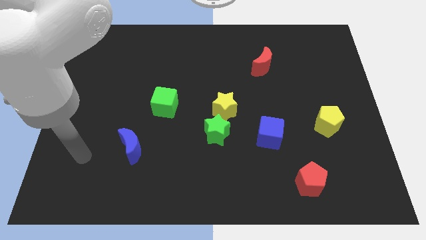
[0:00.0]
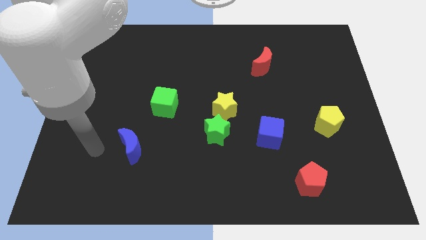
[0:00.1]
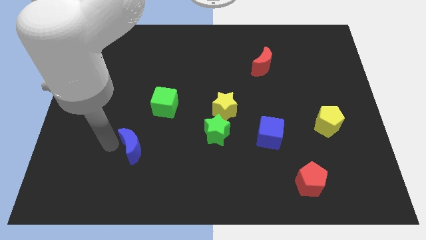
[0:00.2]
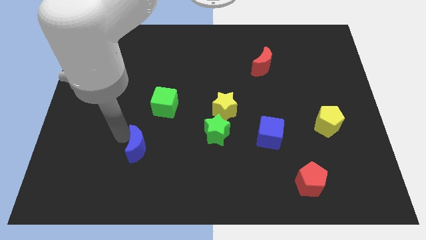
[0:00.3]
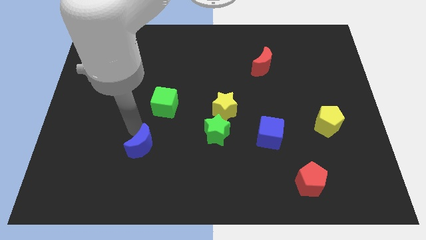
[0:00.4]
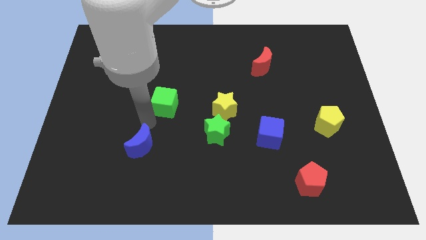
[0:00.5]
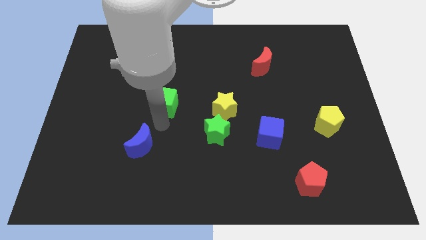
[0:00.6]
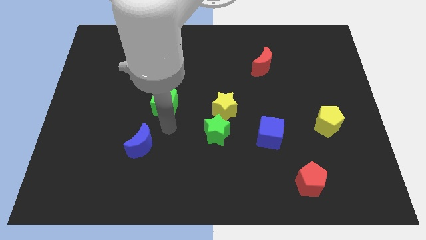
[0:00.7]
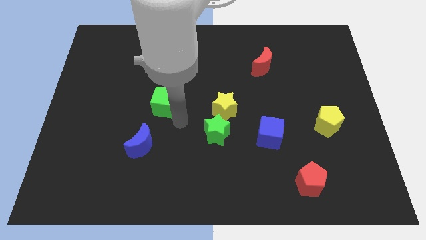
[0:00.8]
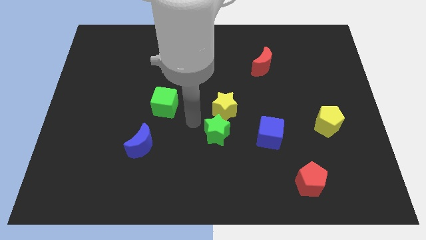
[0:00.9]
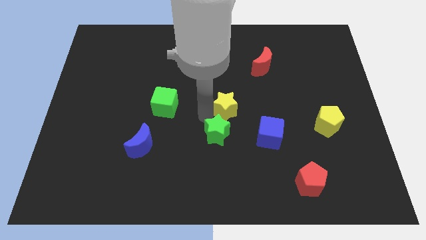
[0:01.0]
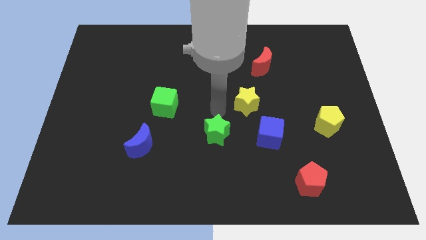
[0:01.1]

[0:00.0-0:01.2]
move the green star away from the yellow star

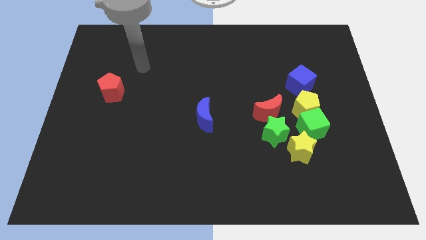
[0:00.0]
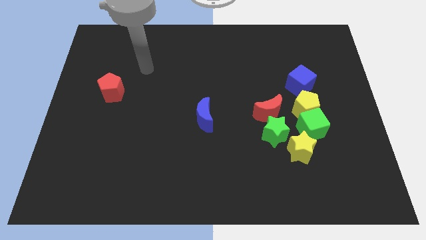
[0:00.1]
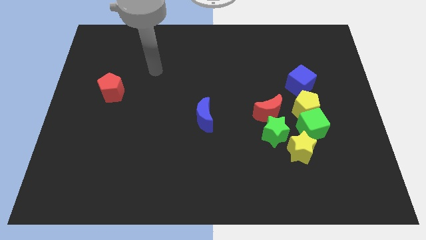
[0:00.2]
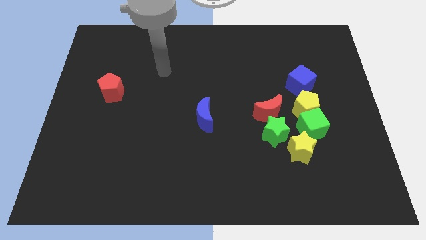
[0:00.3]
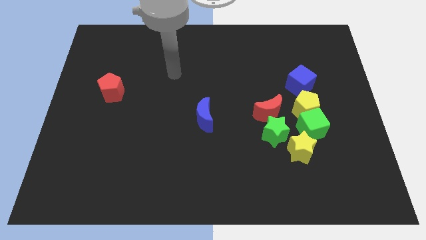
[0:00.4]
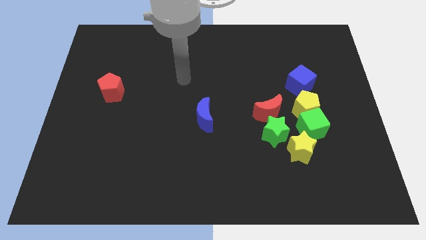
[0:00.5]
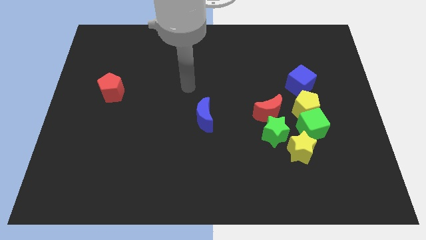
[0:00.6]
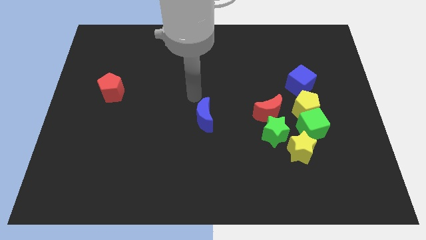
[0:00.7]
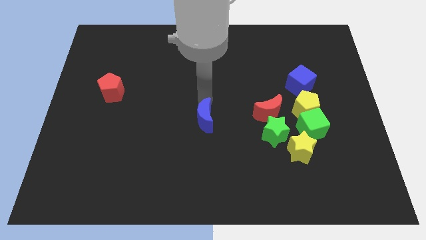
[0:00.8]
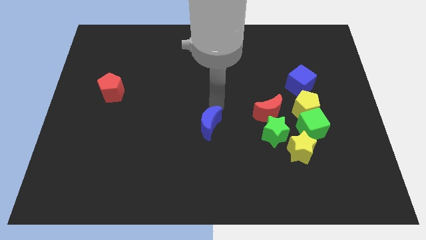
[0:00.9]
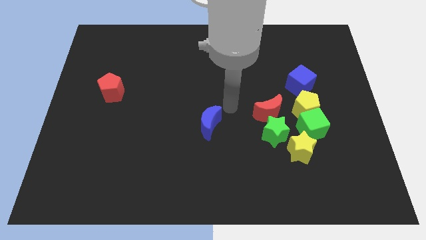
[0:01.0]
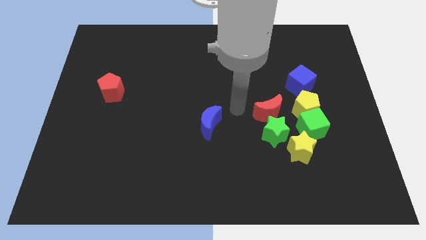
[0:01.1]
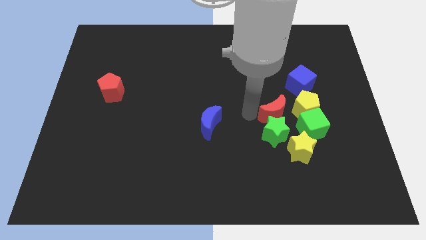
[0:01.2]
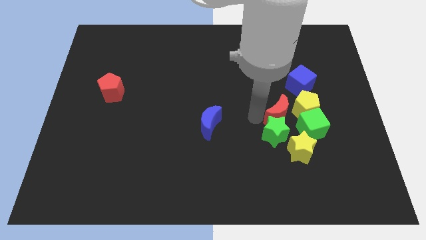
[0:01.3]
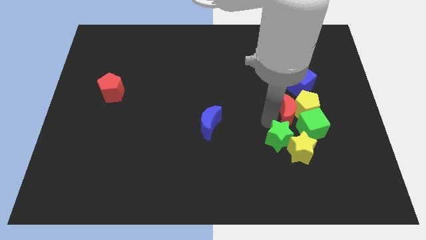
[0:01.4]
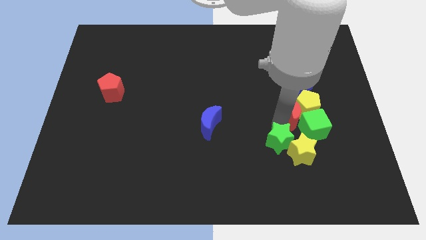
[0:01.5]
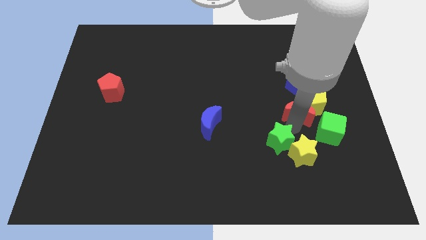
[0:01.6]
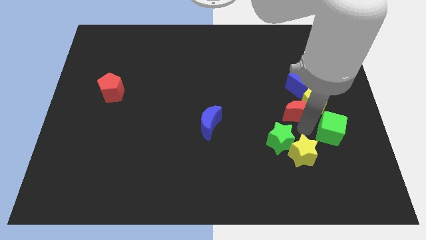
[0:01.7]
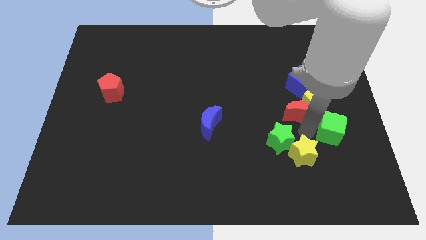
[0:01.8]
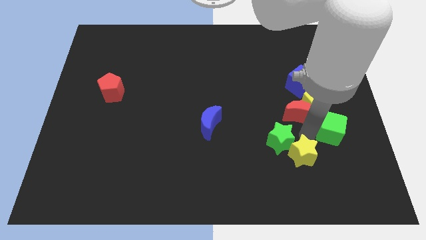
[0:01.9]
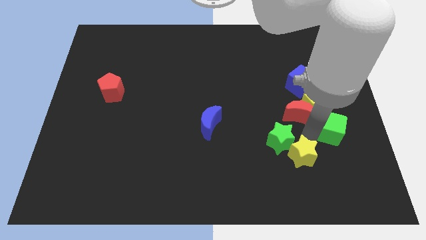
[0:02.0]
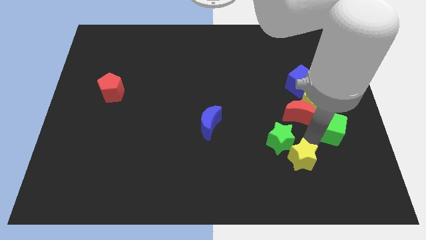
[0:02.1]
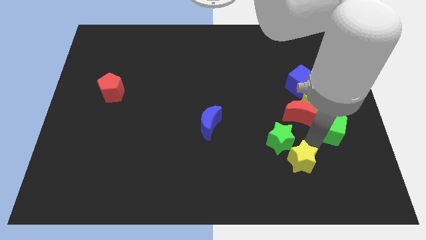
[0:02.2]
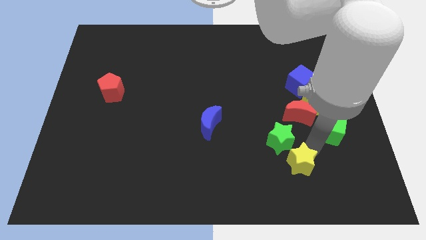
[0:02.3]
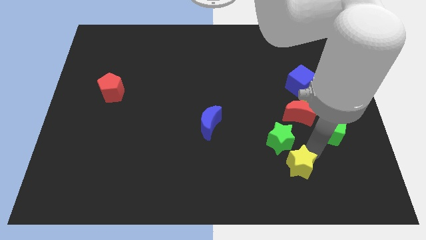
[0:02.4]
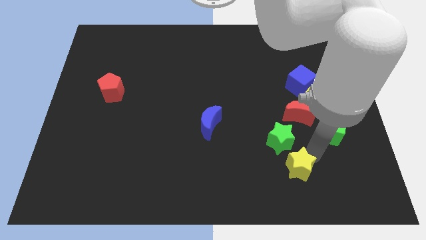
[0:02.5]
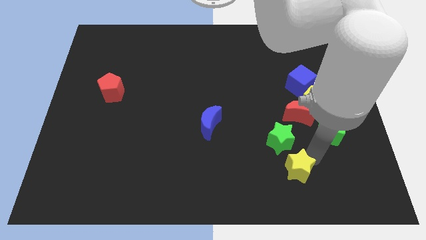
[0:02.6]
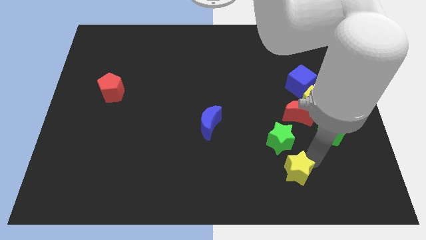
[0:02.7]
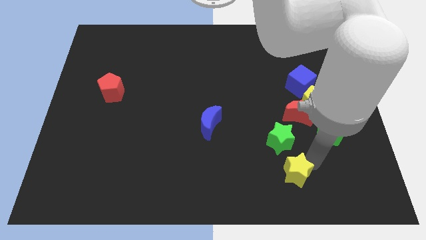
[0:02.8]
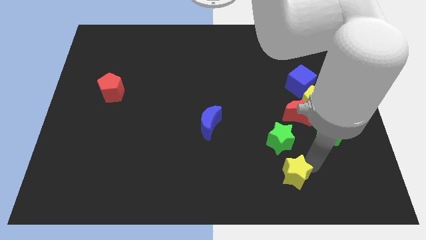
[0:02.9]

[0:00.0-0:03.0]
move the yellow star away from the green cube and green star

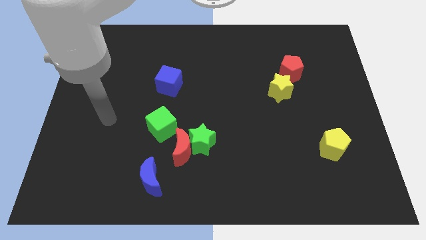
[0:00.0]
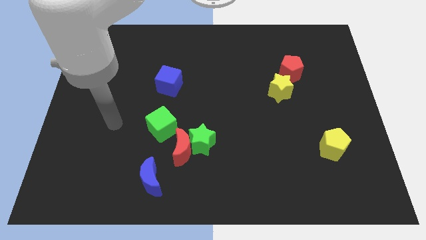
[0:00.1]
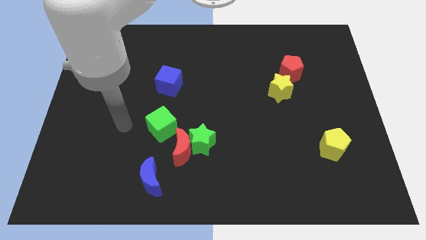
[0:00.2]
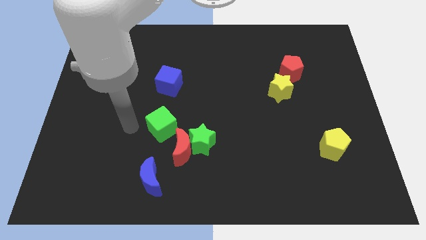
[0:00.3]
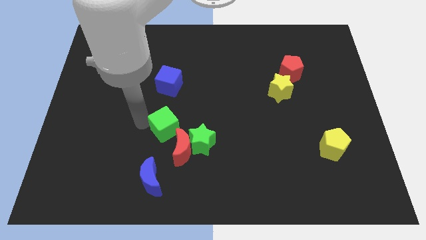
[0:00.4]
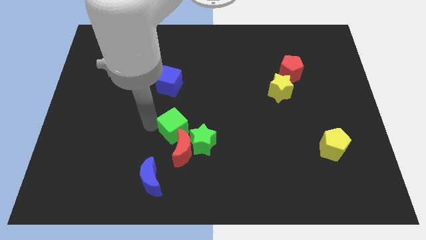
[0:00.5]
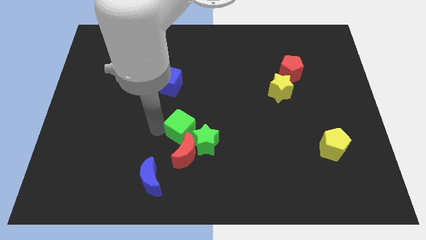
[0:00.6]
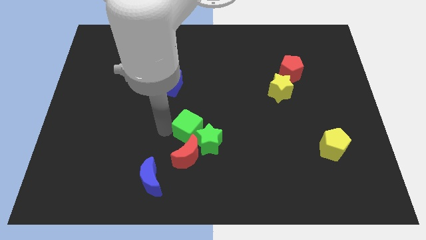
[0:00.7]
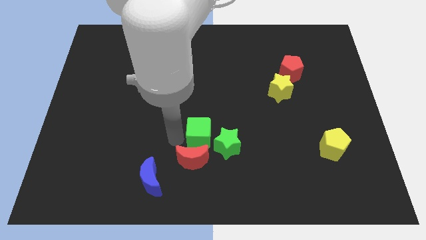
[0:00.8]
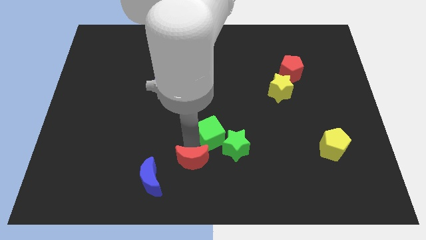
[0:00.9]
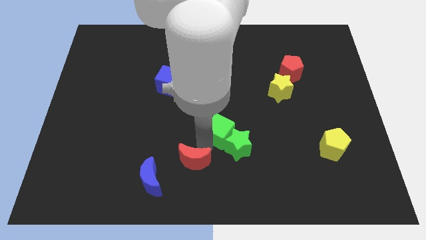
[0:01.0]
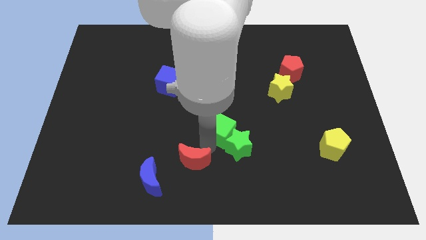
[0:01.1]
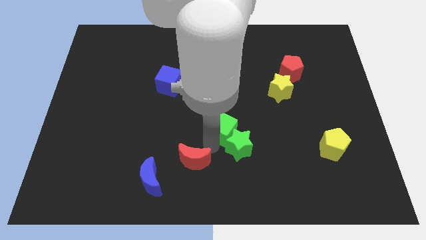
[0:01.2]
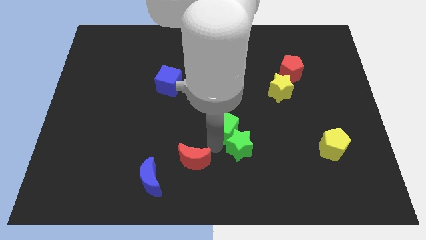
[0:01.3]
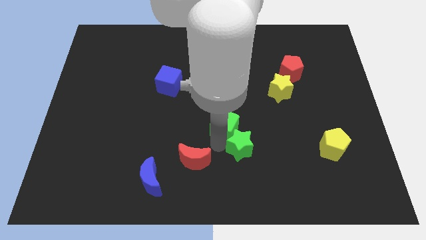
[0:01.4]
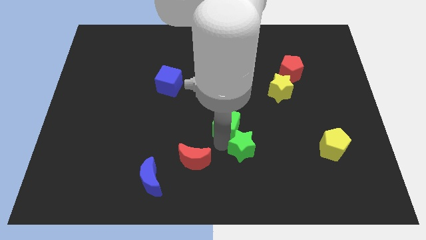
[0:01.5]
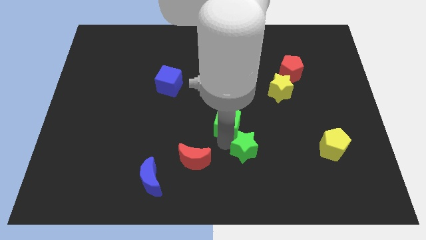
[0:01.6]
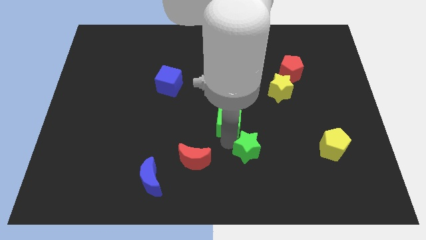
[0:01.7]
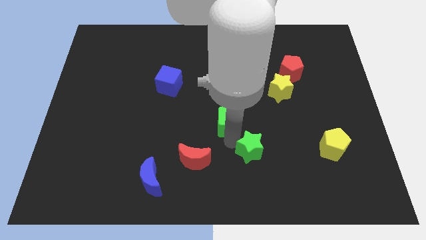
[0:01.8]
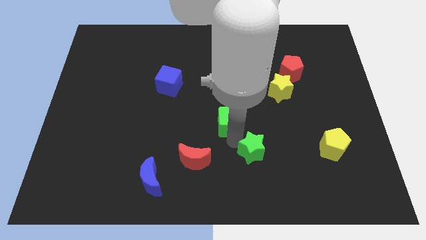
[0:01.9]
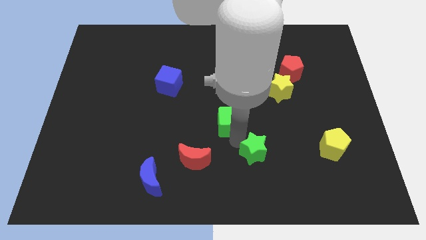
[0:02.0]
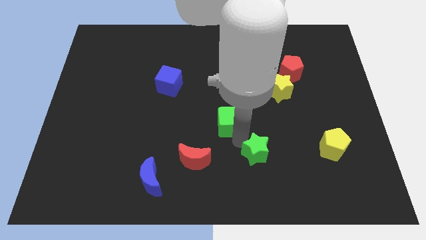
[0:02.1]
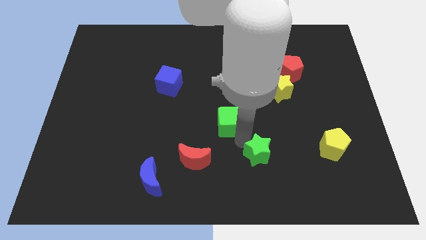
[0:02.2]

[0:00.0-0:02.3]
separate the green star from the red moon and green cube

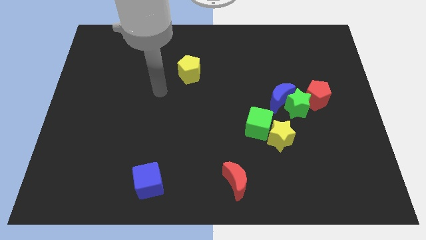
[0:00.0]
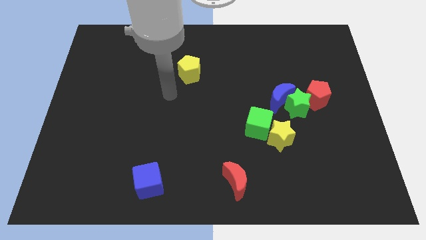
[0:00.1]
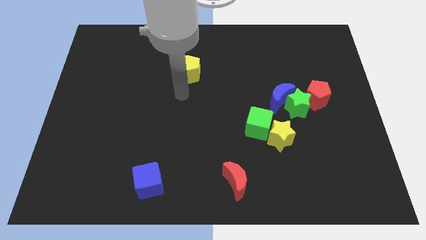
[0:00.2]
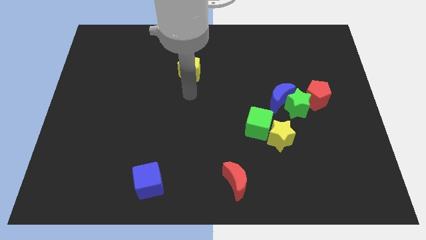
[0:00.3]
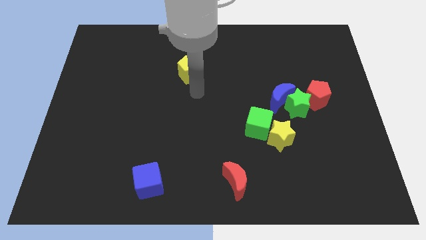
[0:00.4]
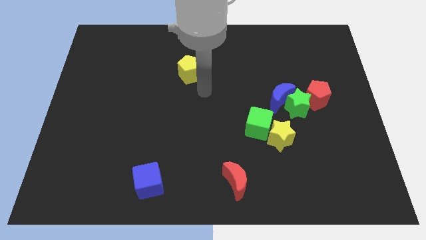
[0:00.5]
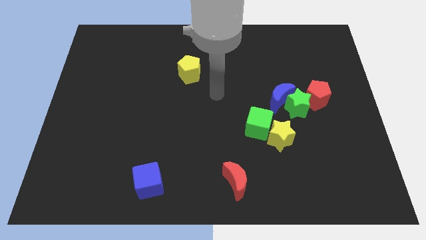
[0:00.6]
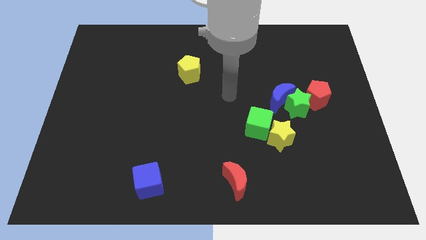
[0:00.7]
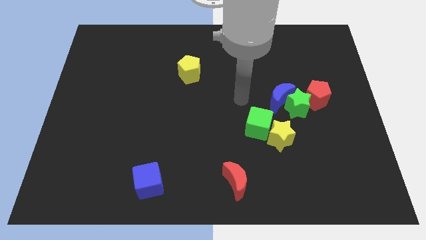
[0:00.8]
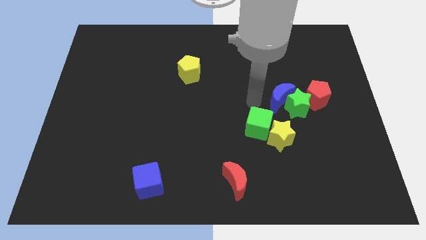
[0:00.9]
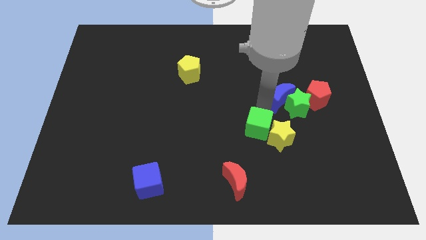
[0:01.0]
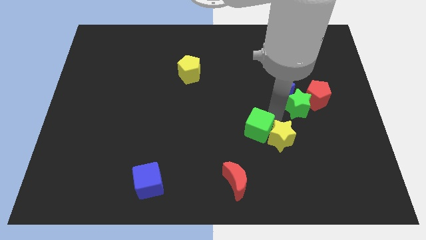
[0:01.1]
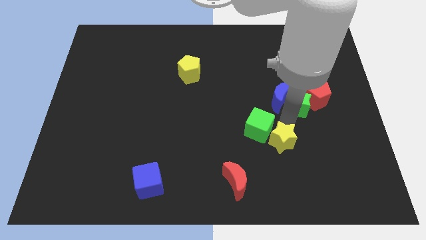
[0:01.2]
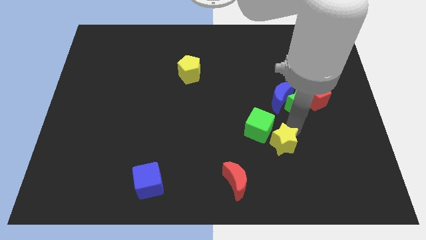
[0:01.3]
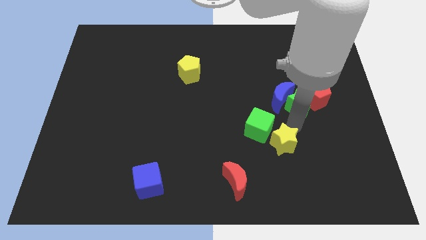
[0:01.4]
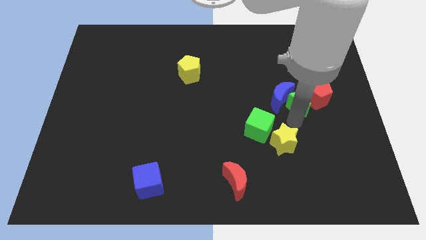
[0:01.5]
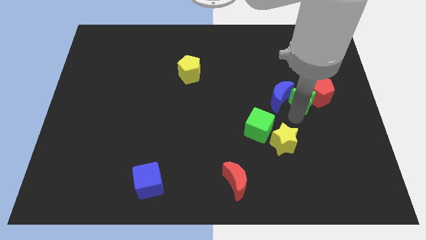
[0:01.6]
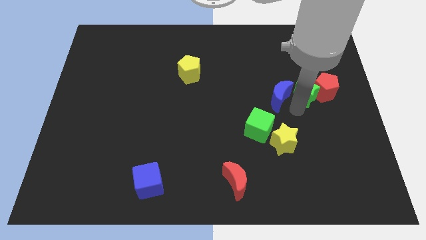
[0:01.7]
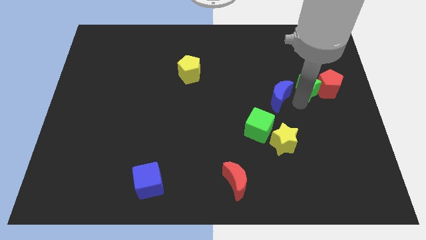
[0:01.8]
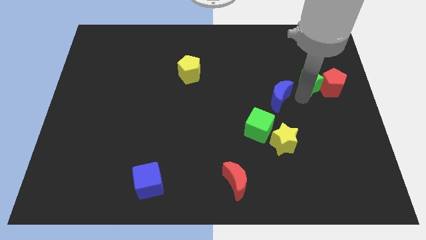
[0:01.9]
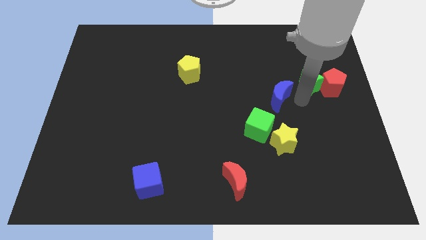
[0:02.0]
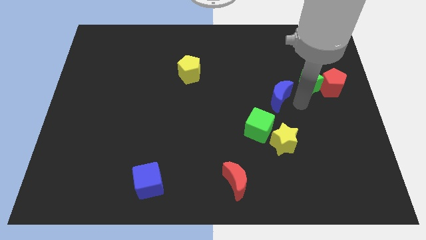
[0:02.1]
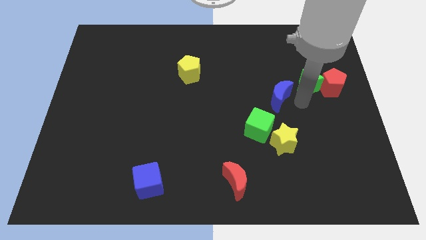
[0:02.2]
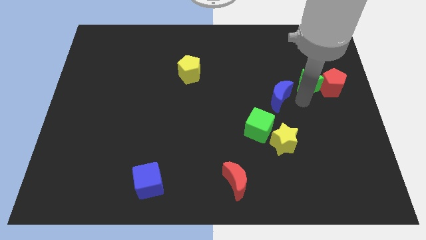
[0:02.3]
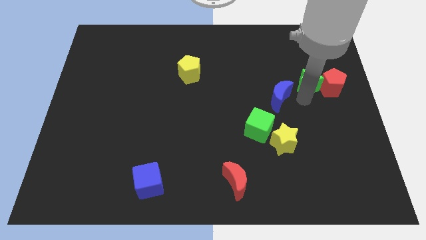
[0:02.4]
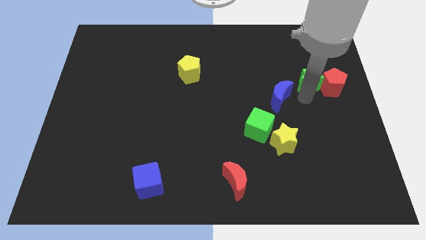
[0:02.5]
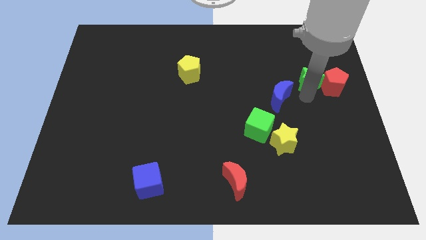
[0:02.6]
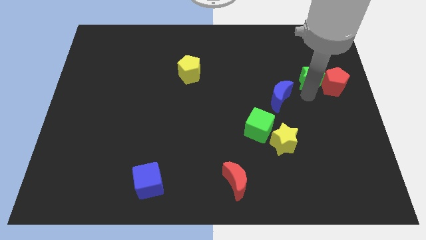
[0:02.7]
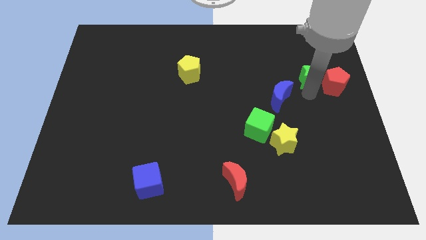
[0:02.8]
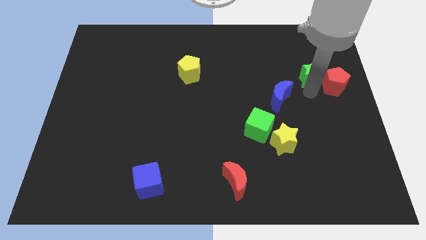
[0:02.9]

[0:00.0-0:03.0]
separate the green star from the group of blocks
